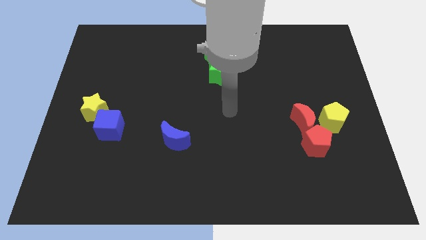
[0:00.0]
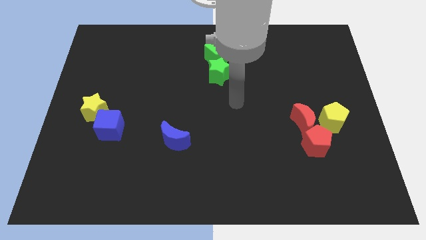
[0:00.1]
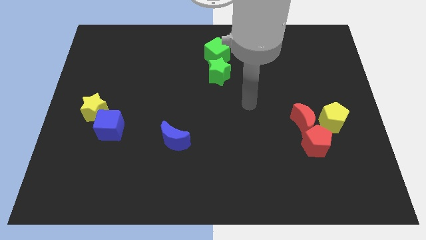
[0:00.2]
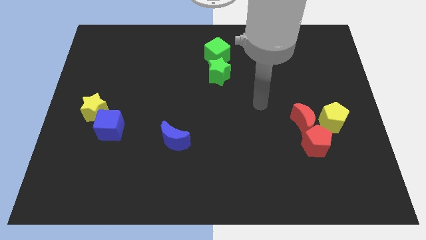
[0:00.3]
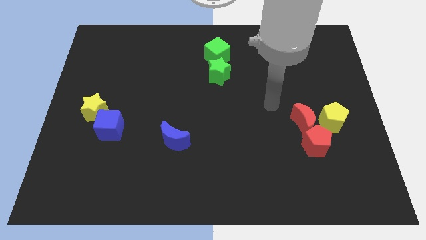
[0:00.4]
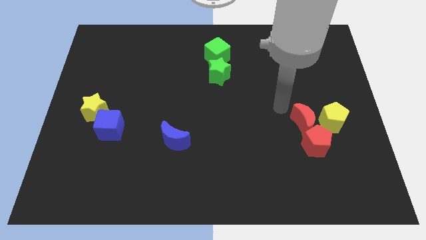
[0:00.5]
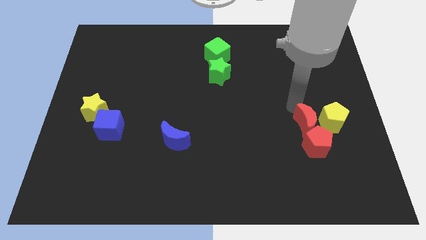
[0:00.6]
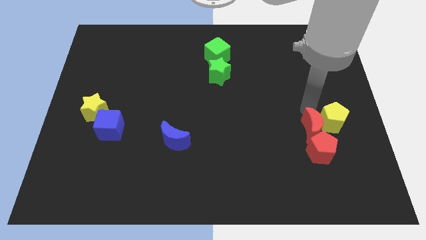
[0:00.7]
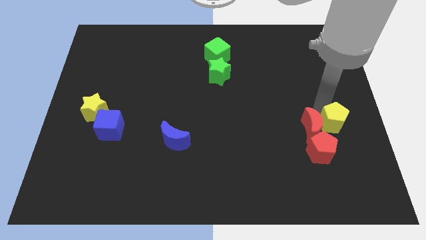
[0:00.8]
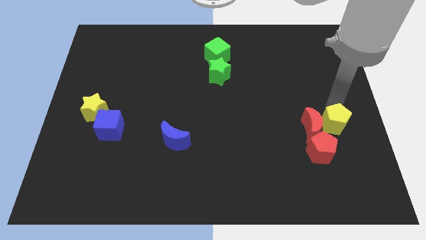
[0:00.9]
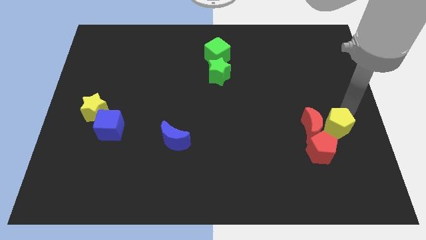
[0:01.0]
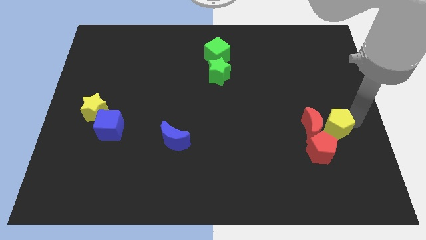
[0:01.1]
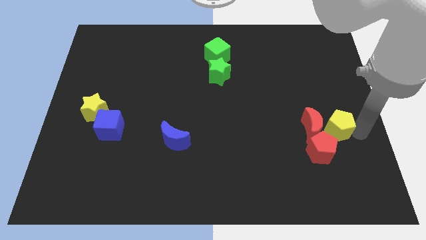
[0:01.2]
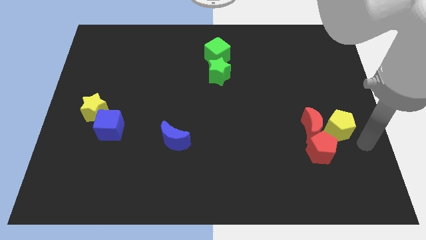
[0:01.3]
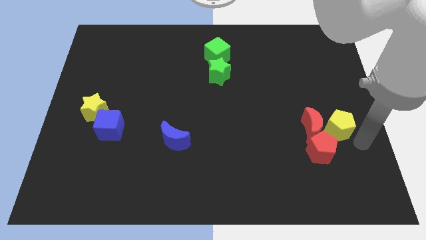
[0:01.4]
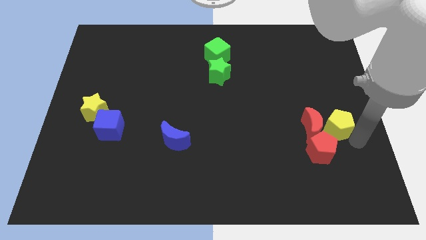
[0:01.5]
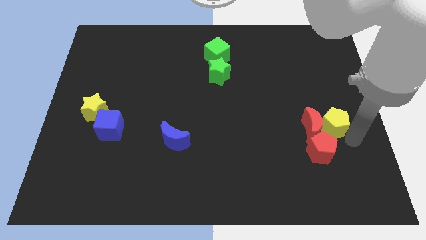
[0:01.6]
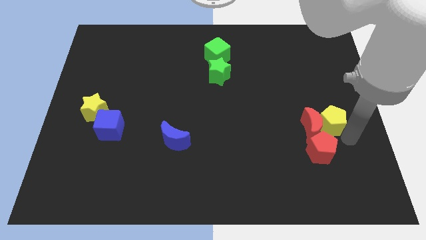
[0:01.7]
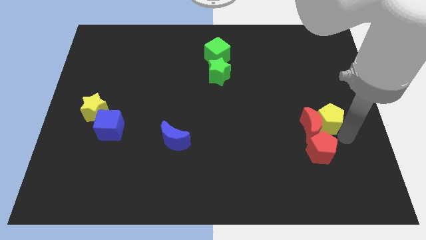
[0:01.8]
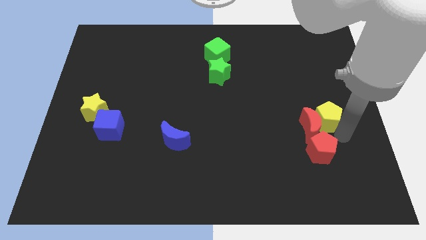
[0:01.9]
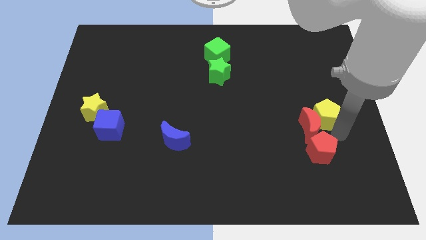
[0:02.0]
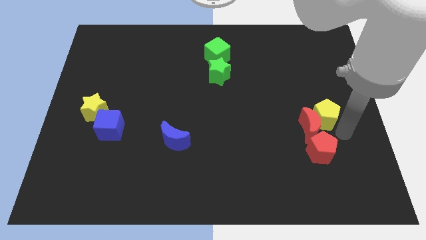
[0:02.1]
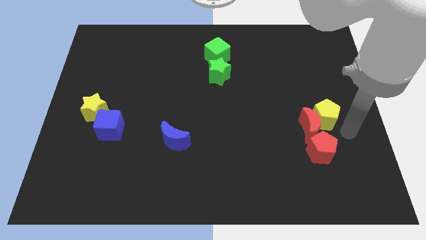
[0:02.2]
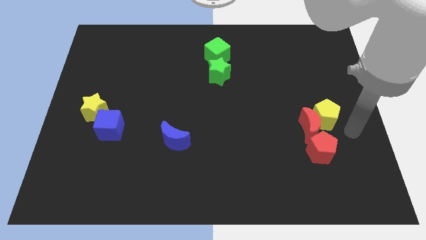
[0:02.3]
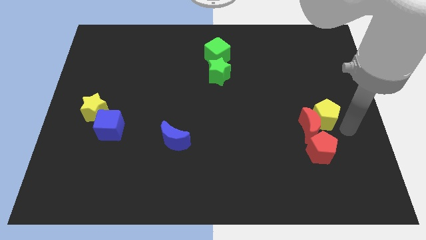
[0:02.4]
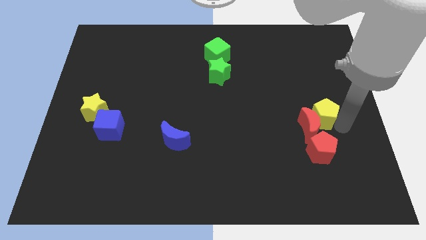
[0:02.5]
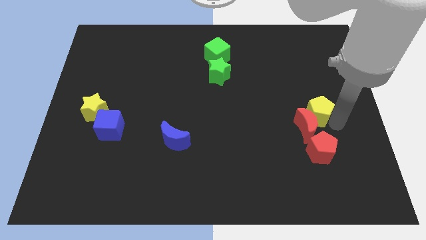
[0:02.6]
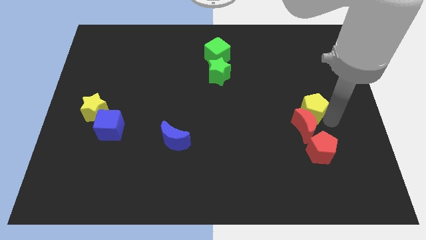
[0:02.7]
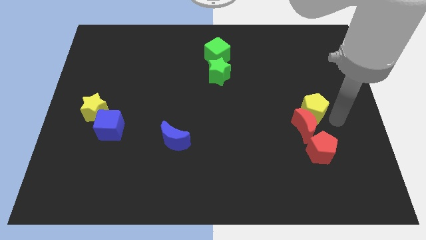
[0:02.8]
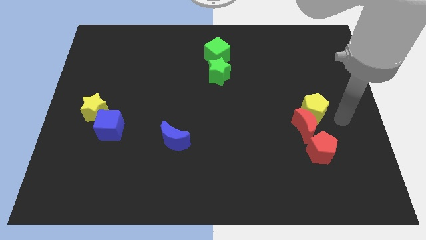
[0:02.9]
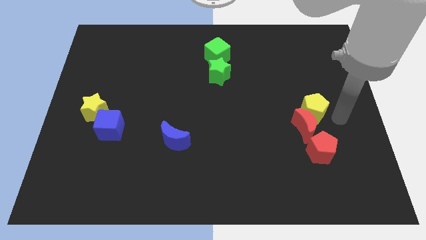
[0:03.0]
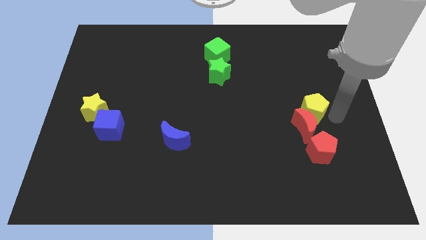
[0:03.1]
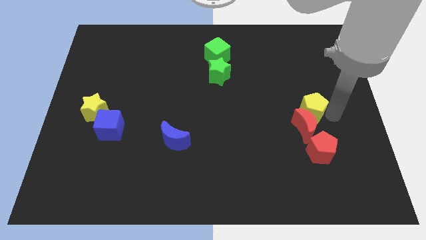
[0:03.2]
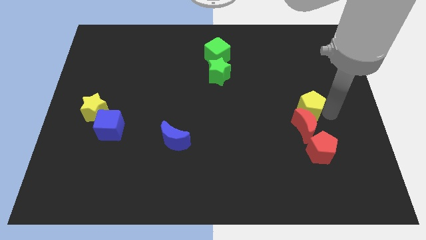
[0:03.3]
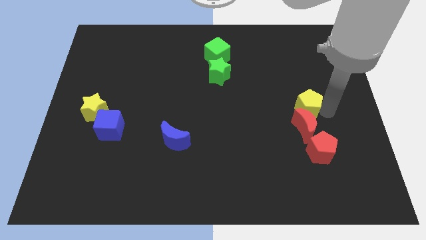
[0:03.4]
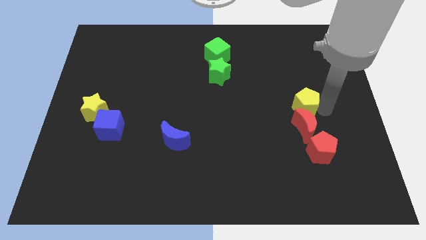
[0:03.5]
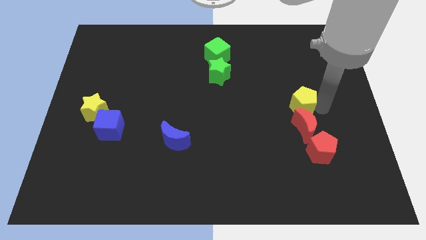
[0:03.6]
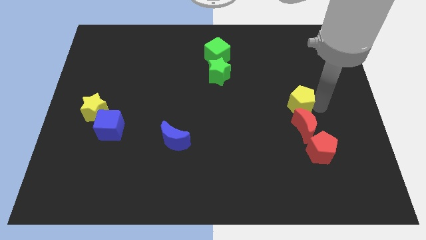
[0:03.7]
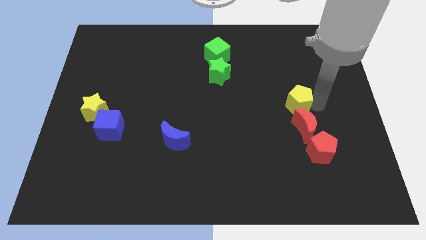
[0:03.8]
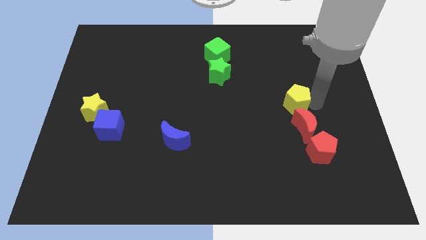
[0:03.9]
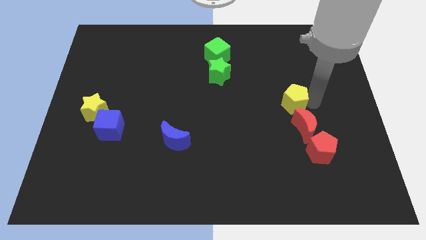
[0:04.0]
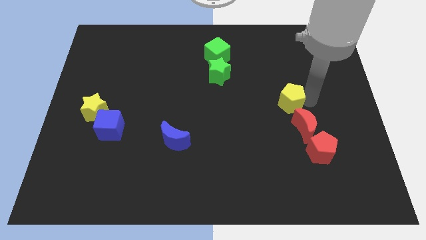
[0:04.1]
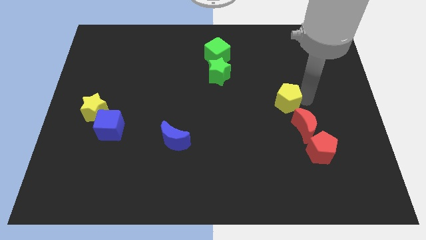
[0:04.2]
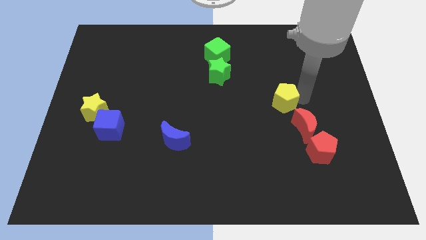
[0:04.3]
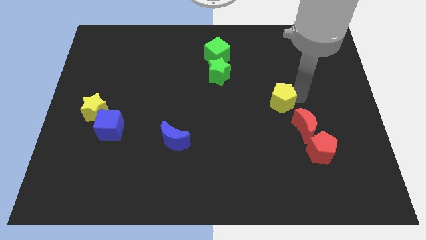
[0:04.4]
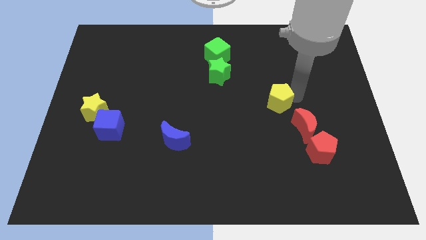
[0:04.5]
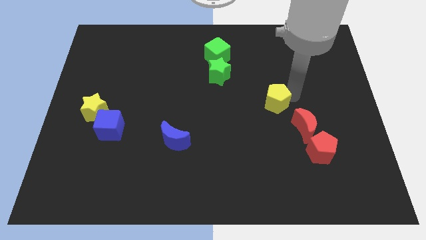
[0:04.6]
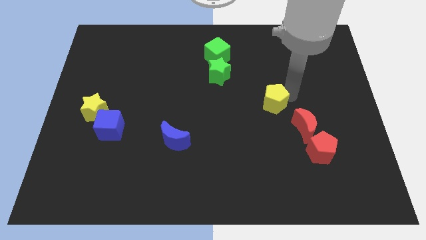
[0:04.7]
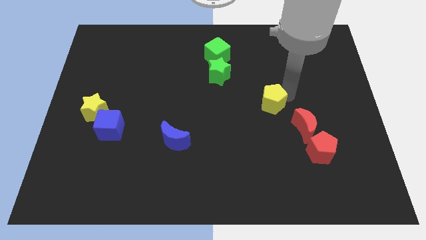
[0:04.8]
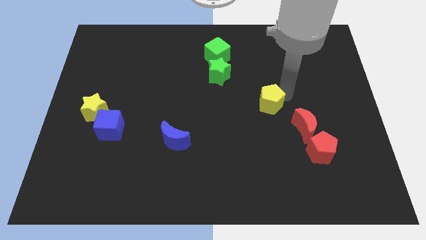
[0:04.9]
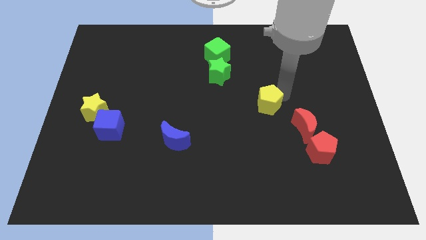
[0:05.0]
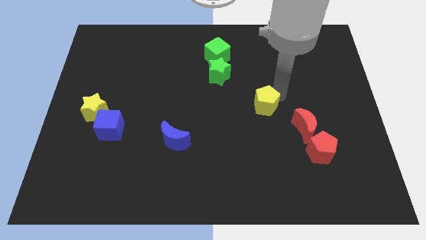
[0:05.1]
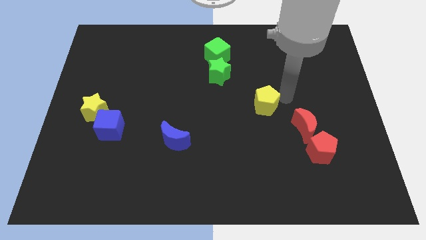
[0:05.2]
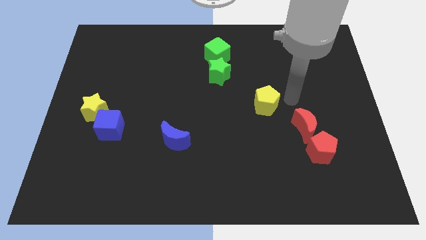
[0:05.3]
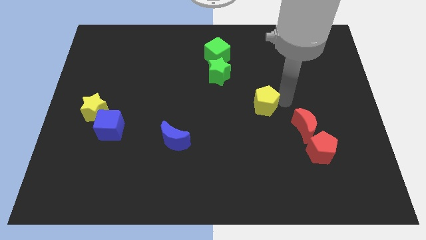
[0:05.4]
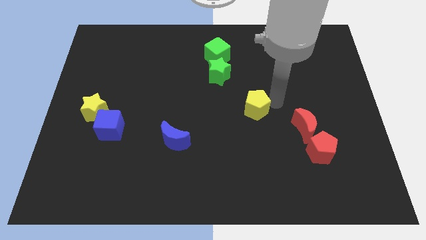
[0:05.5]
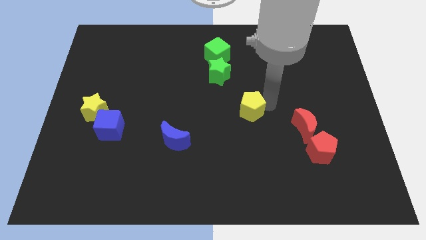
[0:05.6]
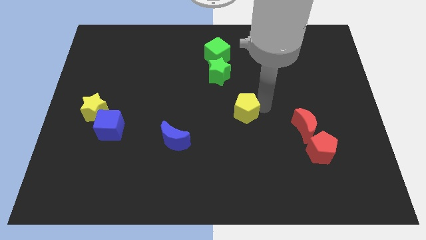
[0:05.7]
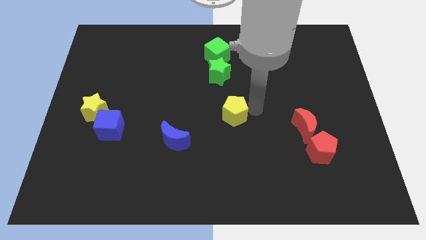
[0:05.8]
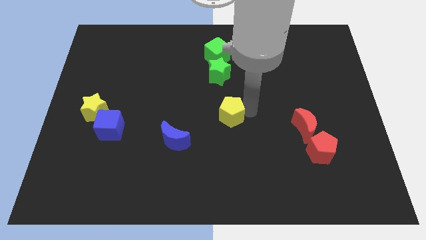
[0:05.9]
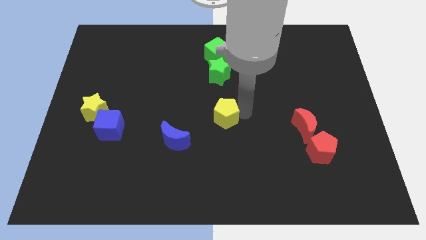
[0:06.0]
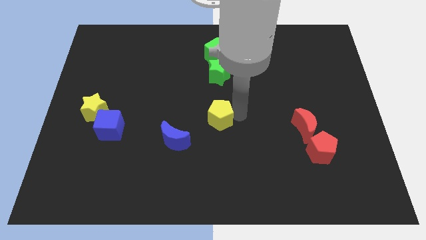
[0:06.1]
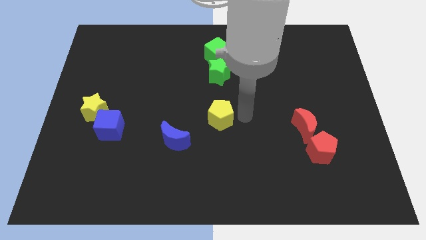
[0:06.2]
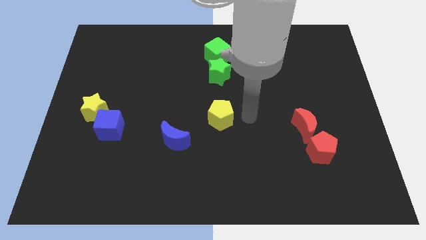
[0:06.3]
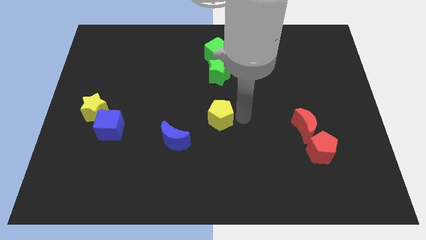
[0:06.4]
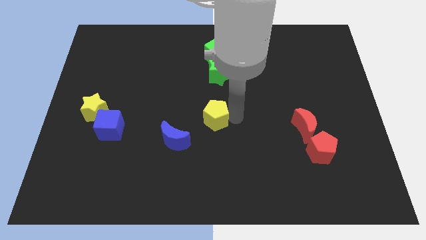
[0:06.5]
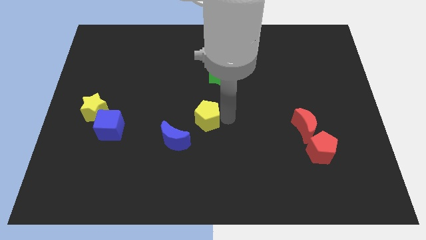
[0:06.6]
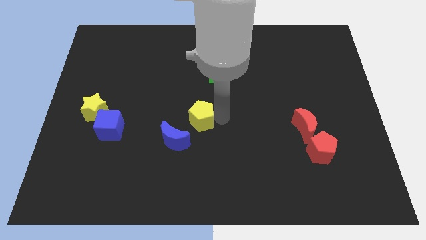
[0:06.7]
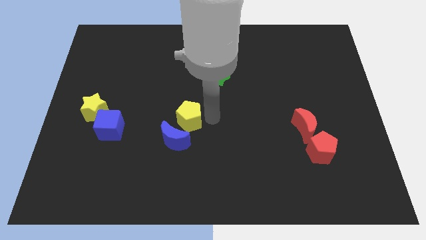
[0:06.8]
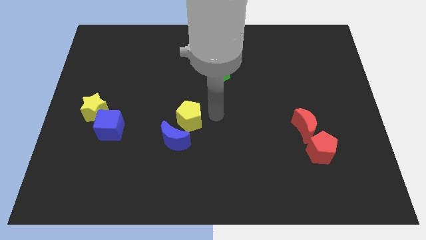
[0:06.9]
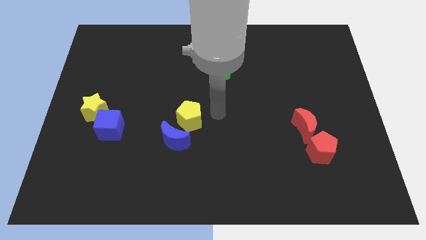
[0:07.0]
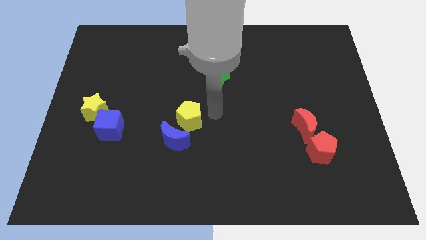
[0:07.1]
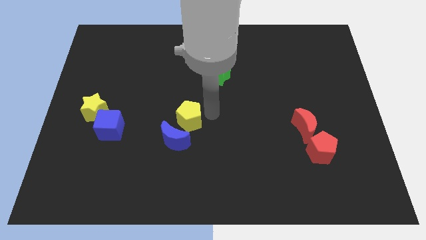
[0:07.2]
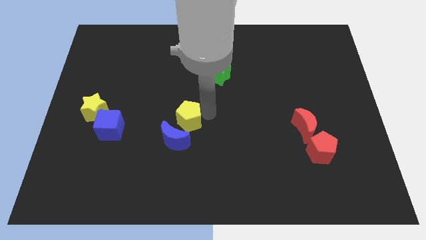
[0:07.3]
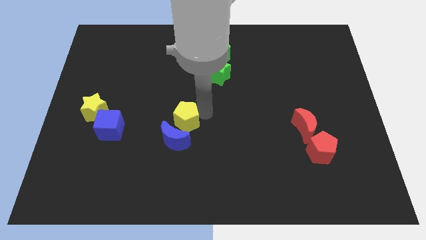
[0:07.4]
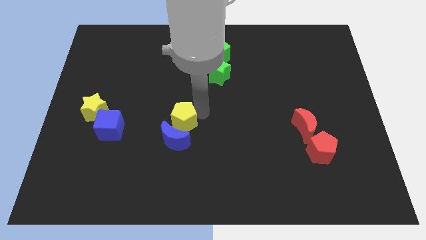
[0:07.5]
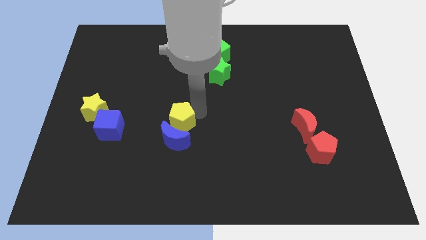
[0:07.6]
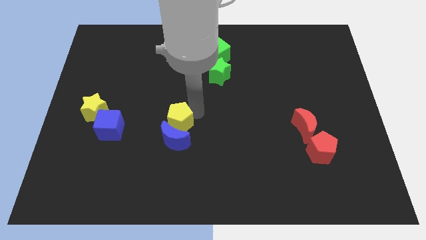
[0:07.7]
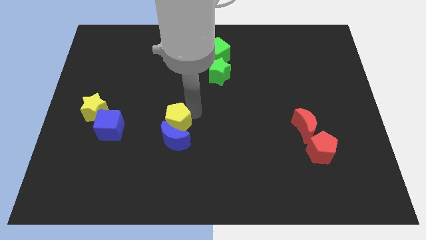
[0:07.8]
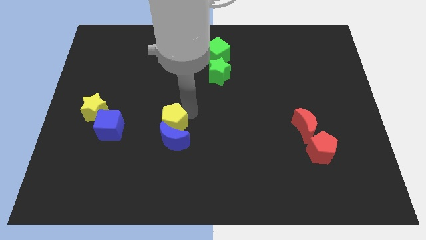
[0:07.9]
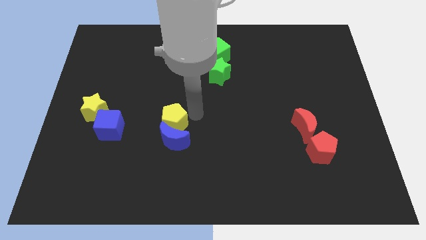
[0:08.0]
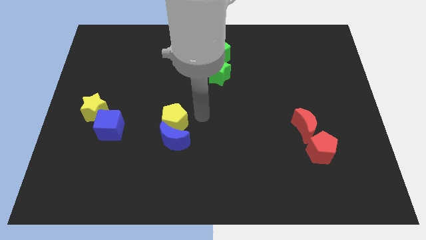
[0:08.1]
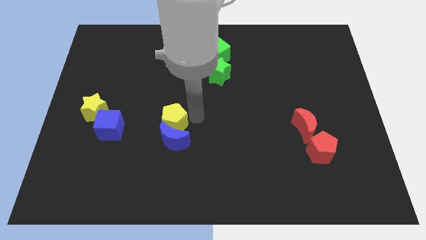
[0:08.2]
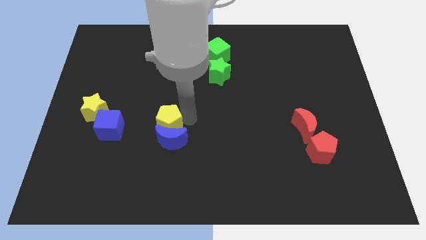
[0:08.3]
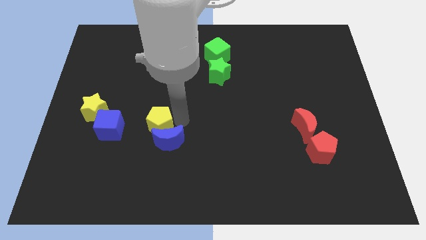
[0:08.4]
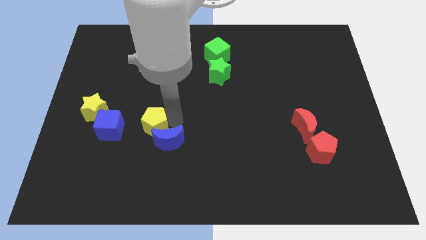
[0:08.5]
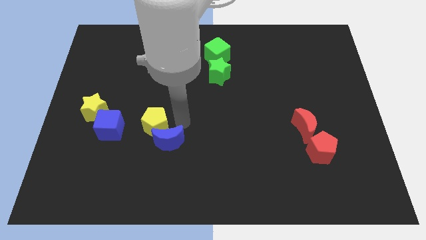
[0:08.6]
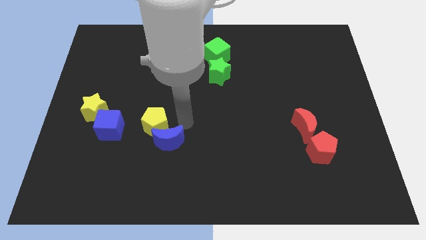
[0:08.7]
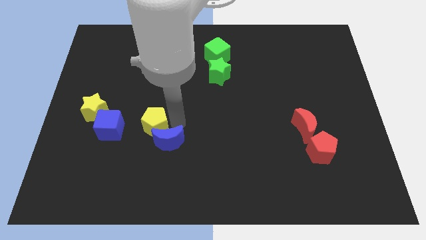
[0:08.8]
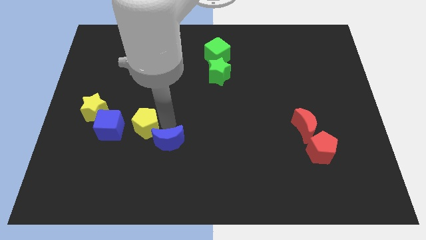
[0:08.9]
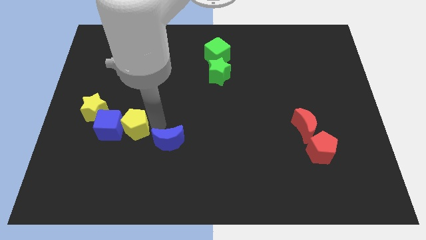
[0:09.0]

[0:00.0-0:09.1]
move the yellow pentagon next to the blue cube
